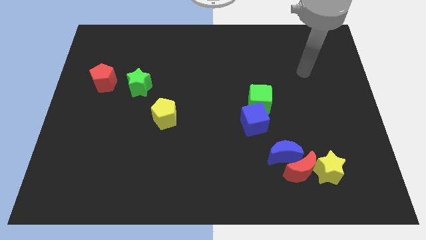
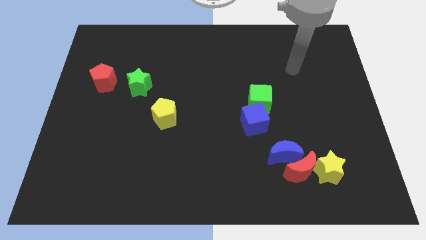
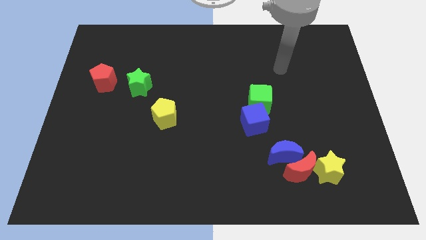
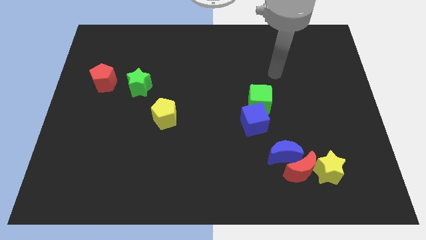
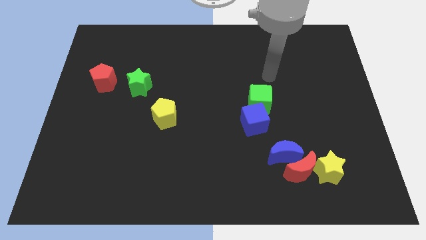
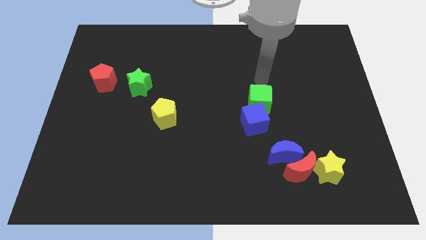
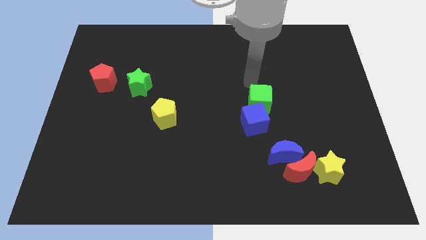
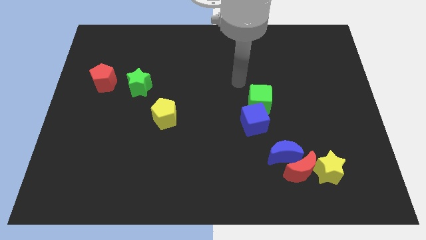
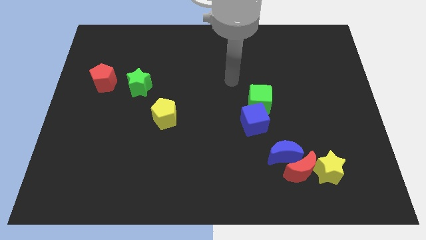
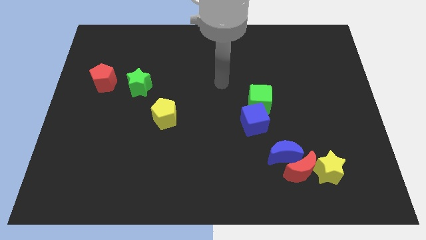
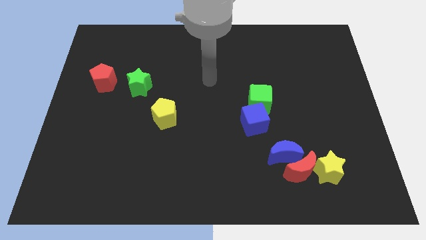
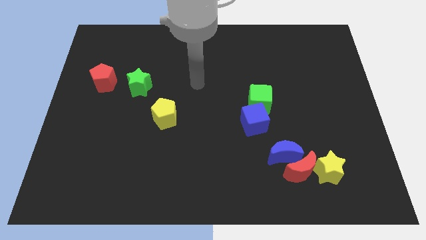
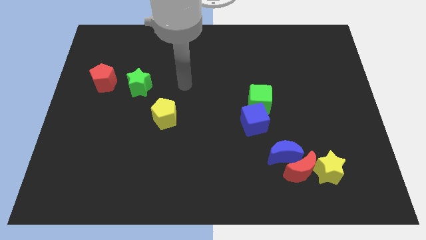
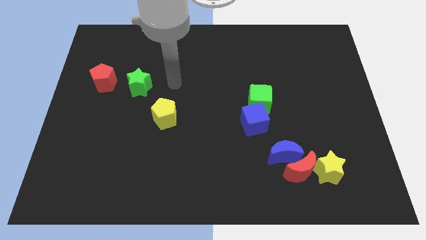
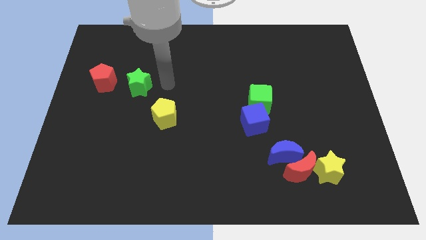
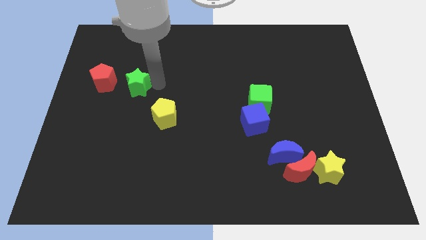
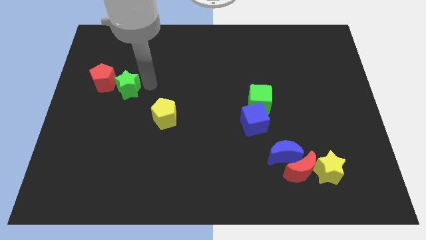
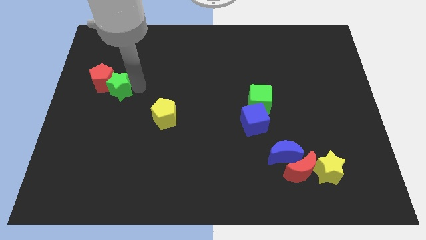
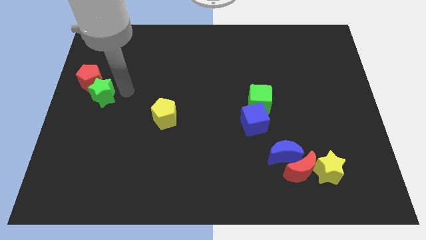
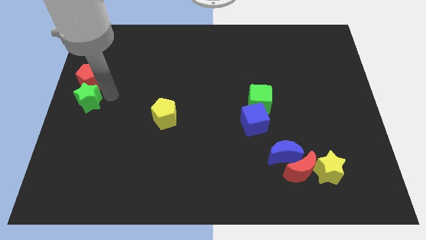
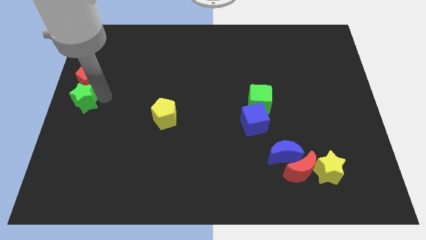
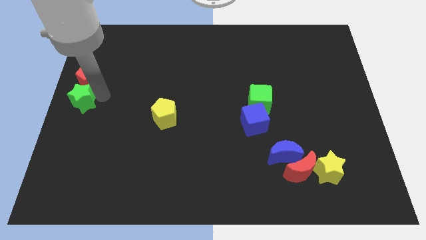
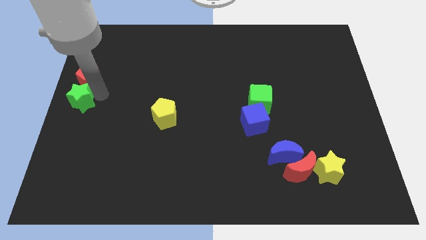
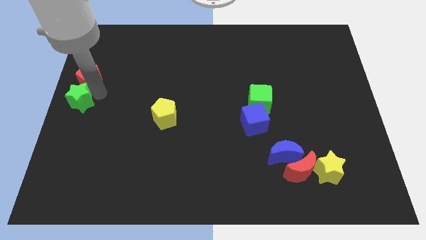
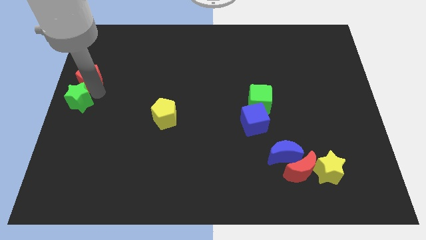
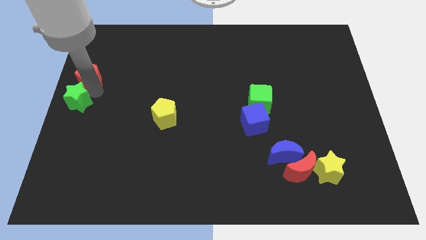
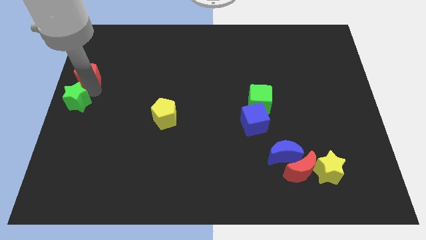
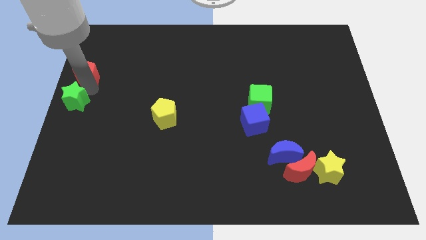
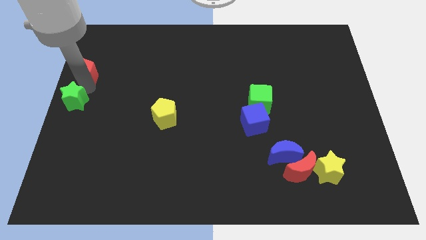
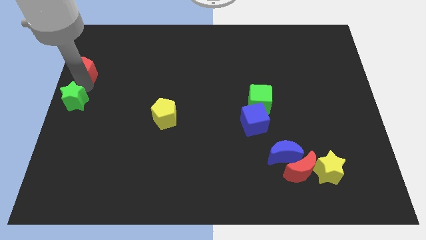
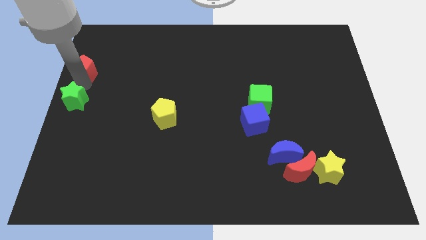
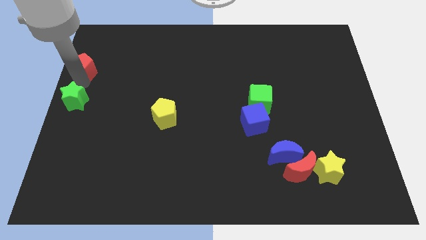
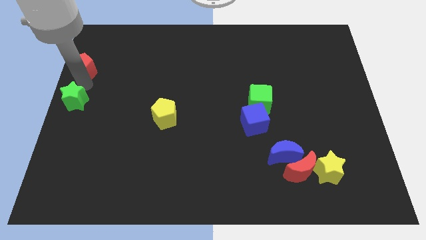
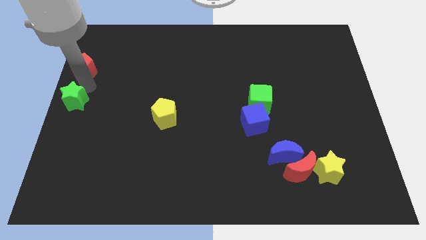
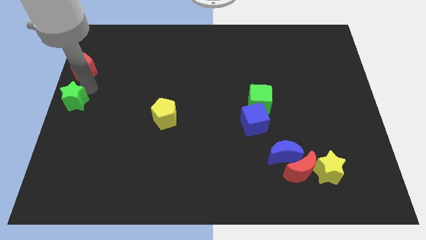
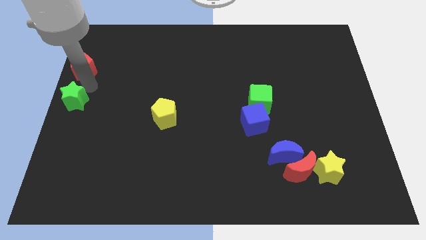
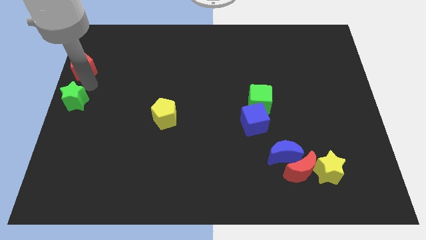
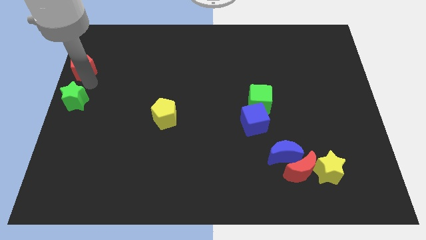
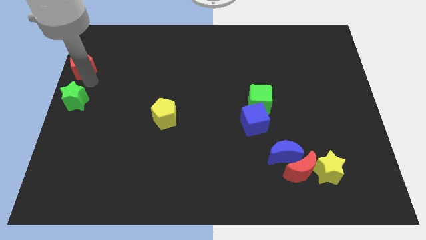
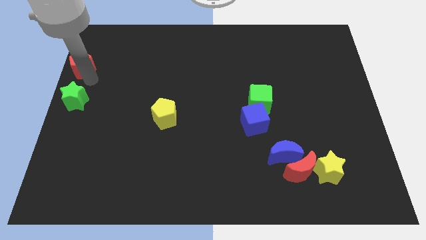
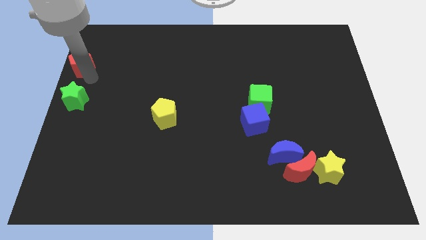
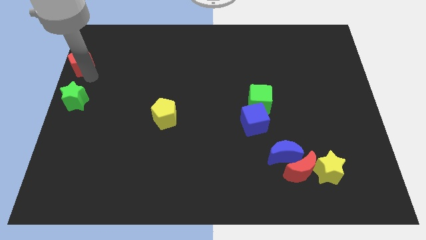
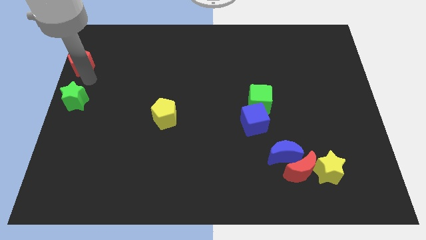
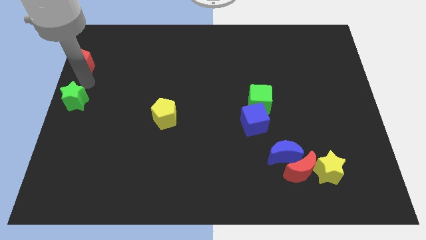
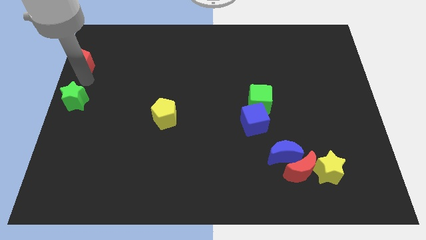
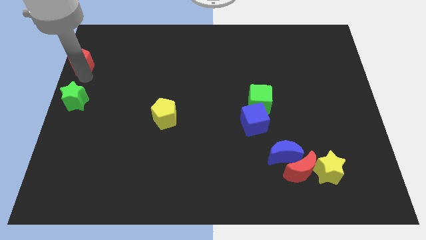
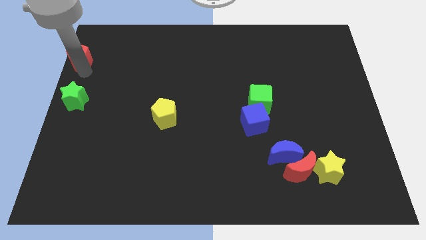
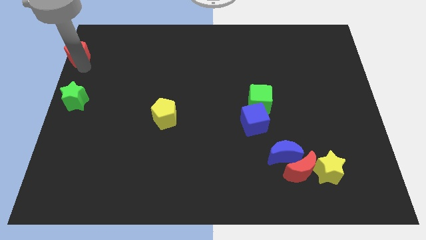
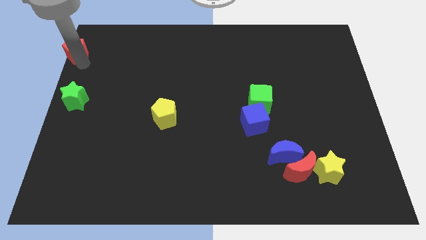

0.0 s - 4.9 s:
move the red pentagon to the upper left corner

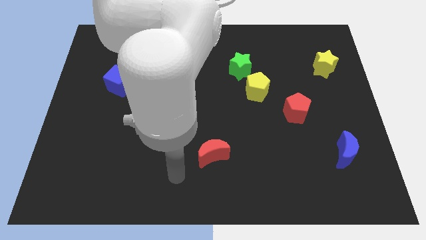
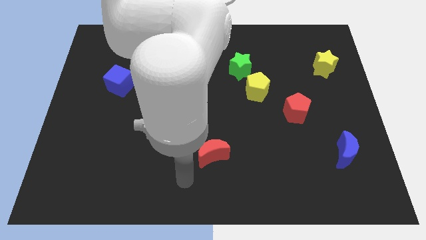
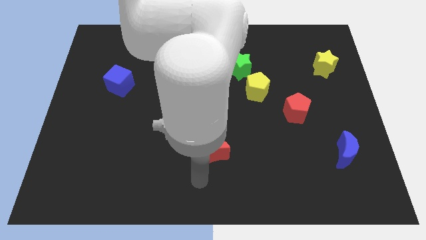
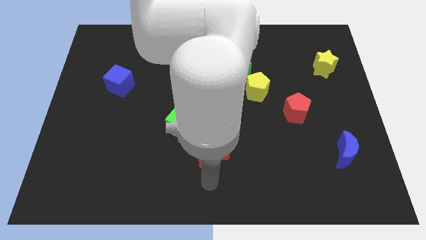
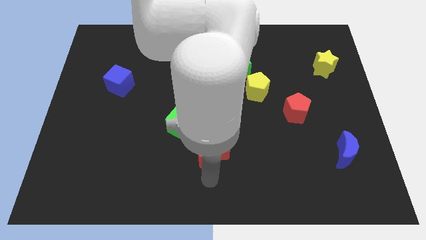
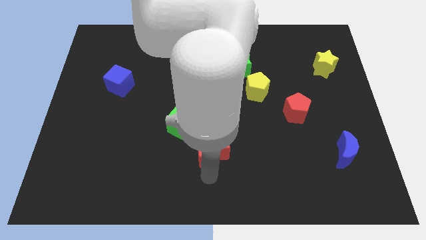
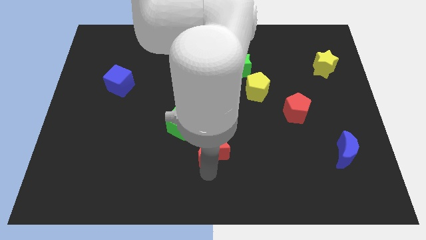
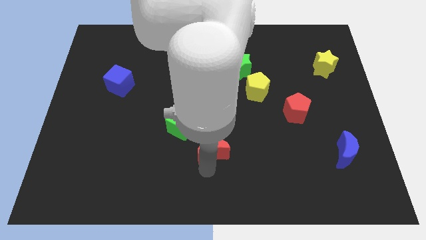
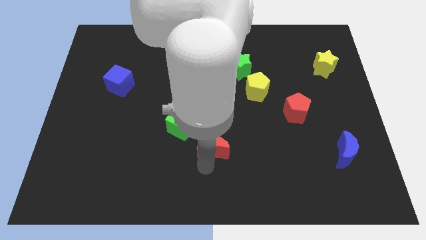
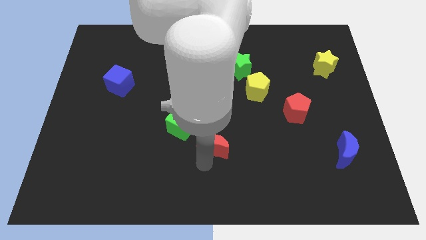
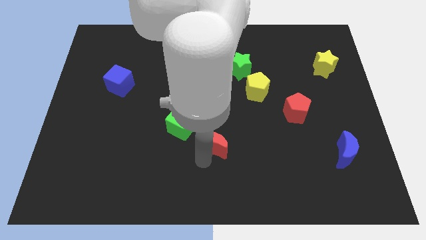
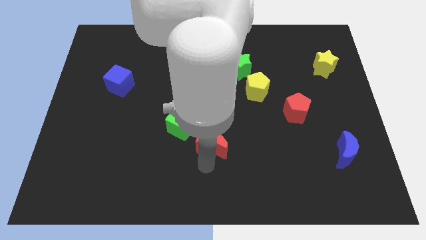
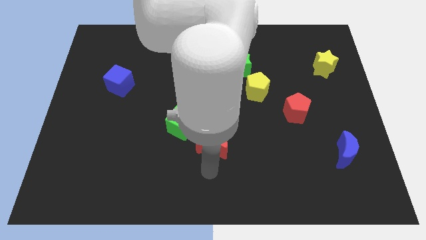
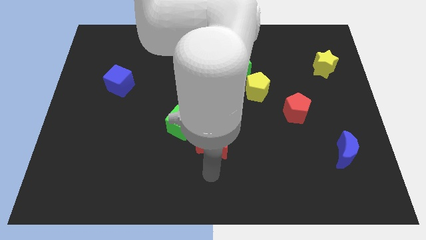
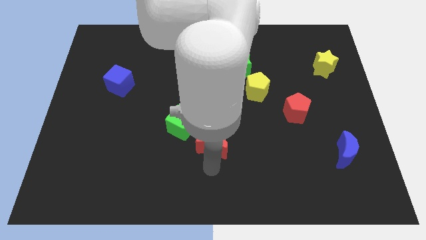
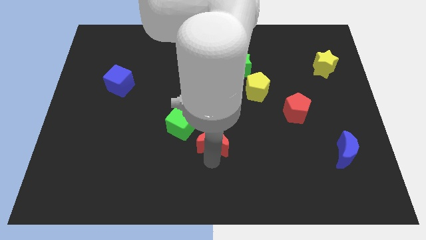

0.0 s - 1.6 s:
slide the red moon to the center
